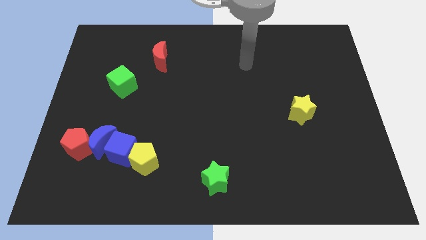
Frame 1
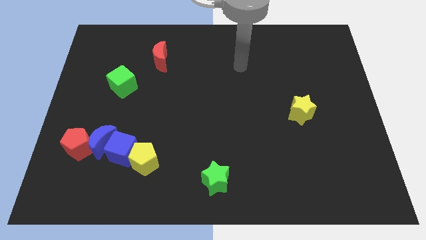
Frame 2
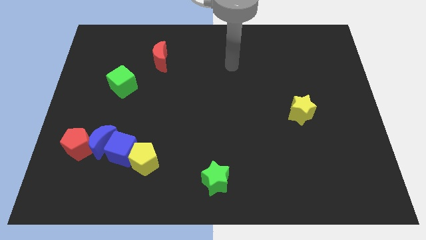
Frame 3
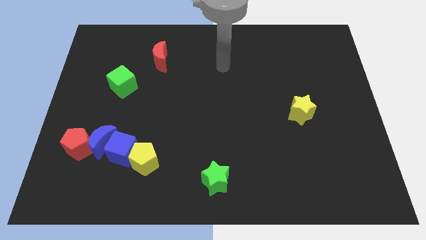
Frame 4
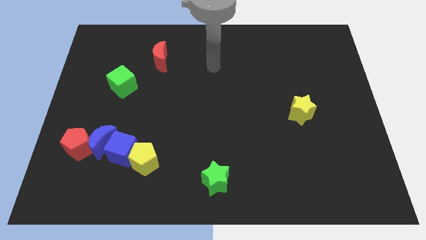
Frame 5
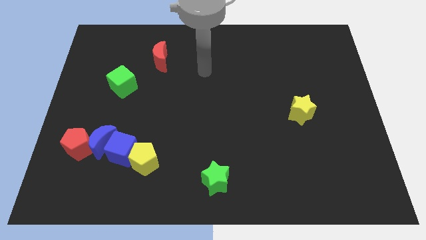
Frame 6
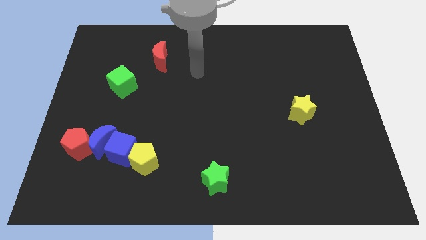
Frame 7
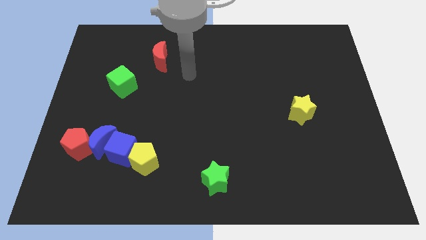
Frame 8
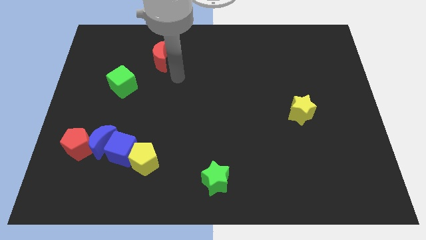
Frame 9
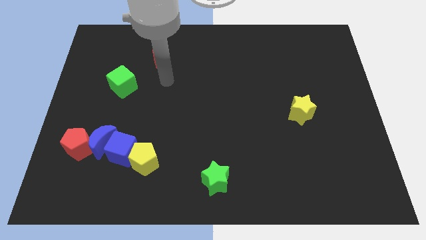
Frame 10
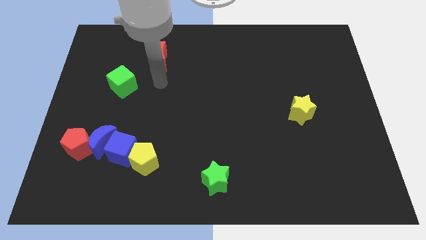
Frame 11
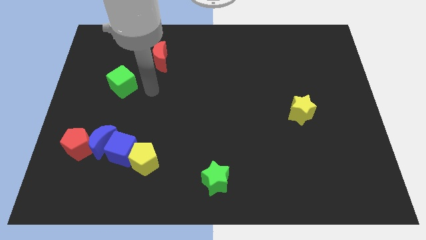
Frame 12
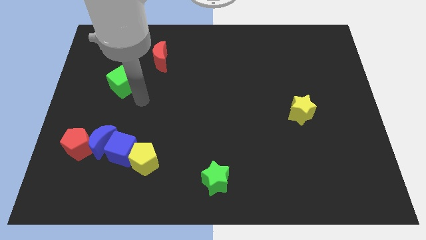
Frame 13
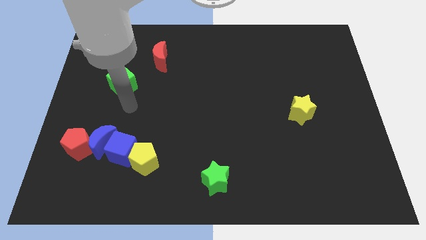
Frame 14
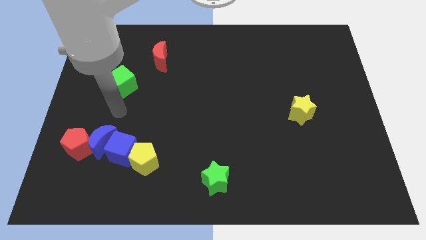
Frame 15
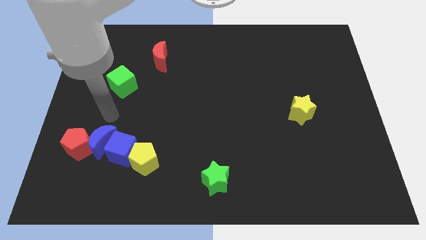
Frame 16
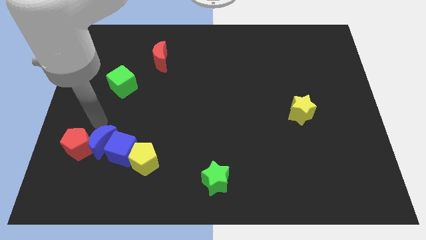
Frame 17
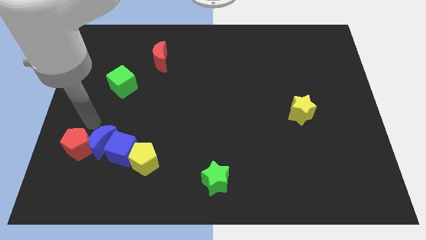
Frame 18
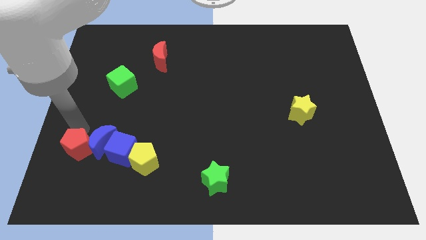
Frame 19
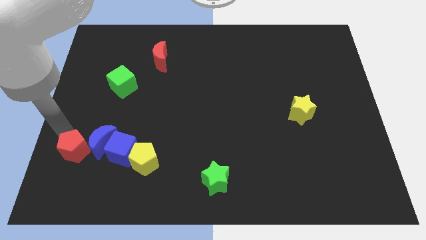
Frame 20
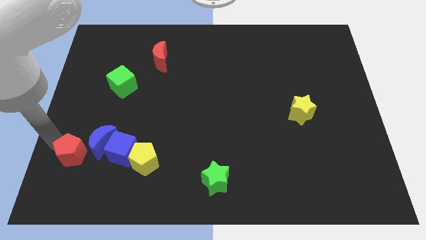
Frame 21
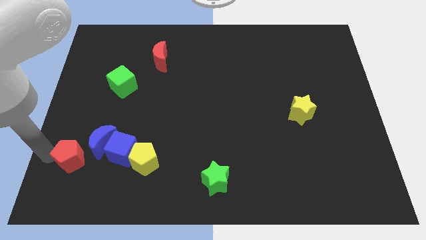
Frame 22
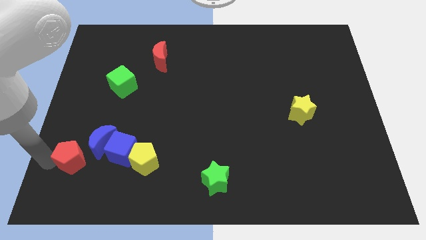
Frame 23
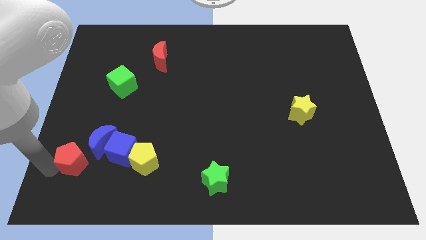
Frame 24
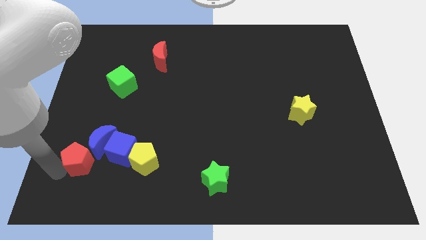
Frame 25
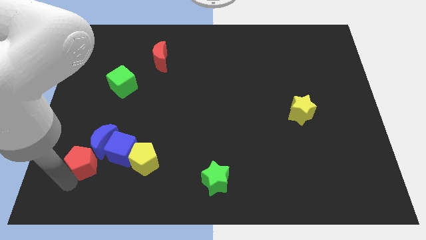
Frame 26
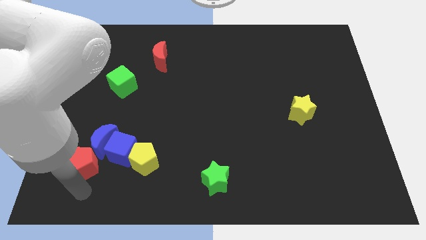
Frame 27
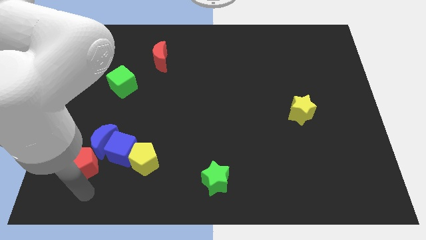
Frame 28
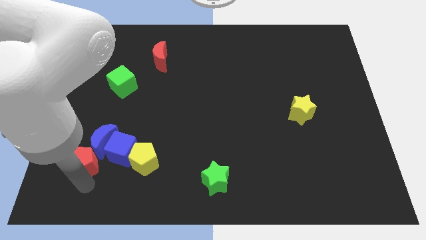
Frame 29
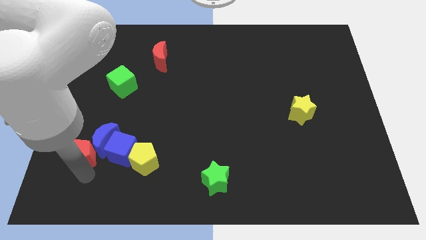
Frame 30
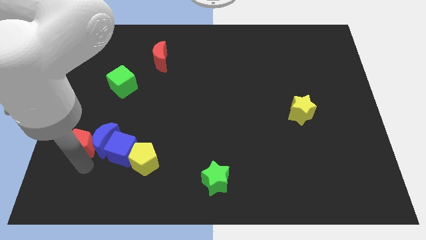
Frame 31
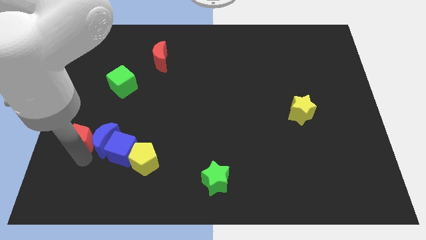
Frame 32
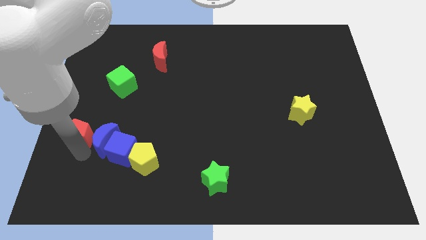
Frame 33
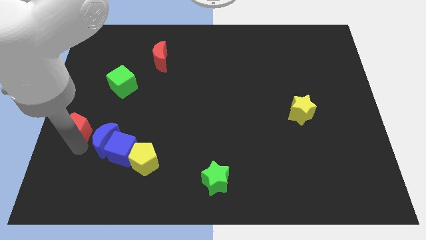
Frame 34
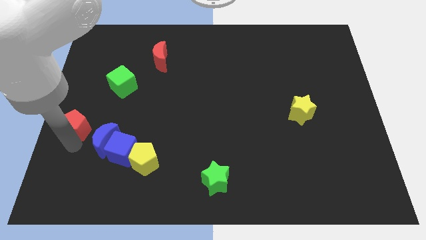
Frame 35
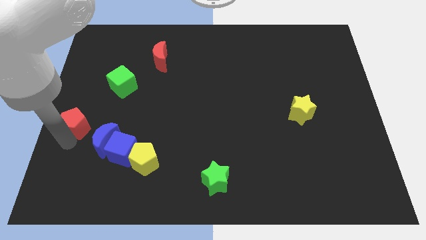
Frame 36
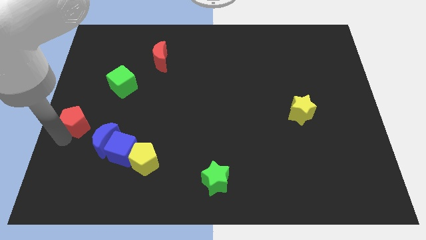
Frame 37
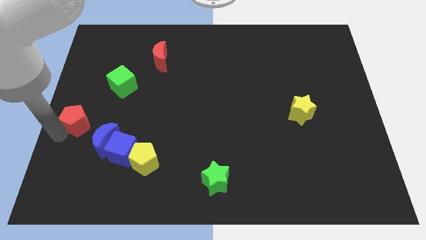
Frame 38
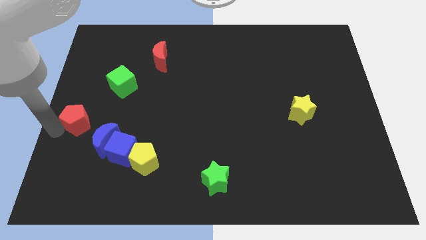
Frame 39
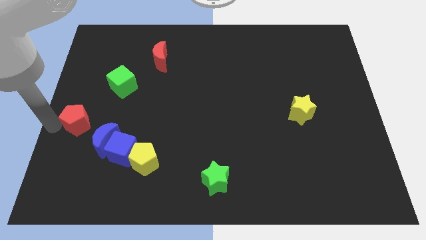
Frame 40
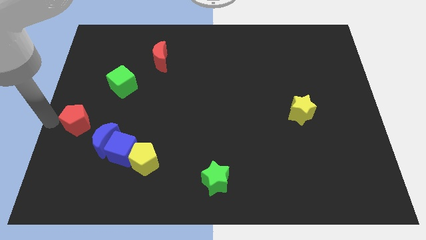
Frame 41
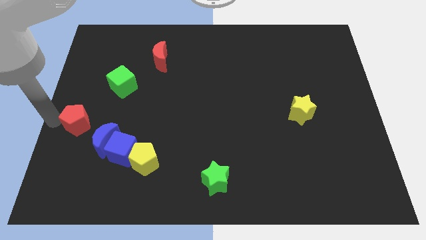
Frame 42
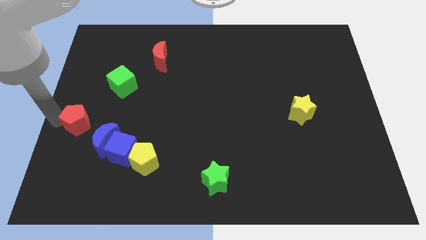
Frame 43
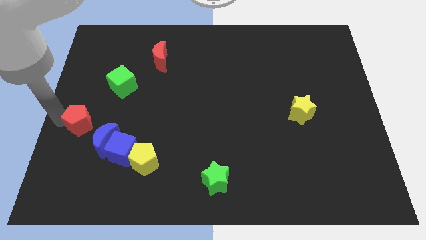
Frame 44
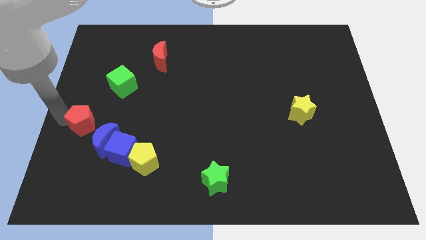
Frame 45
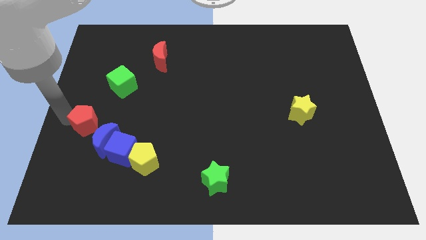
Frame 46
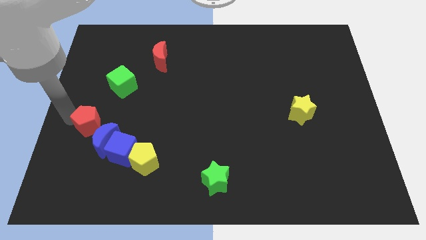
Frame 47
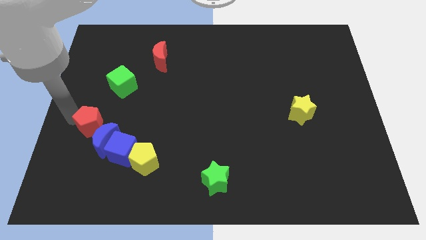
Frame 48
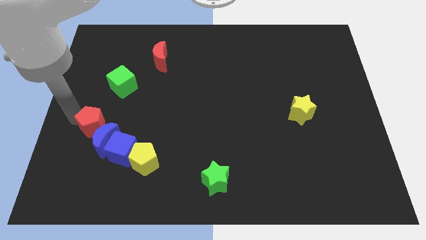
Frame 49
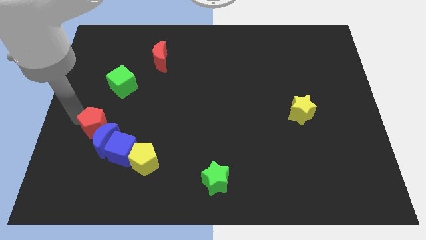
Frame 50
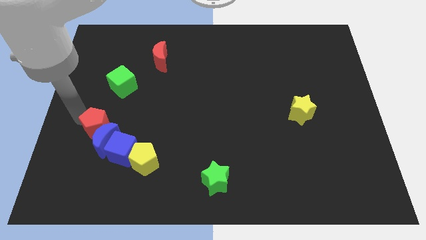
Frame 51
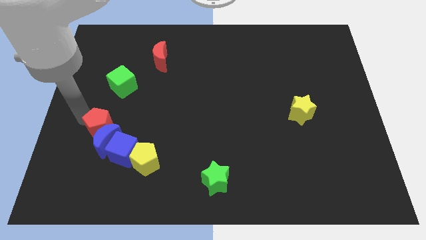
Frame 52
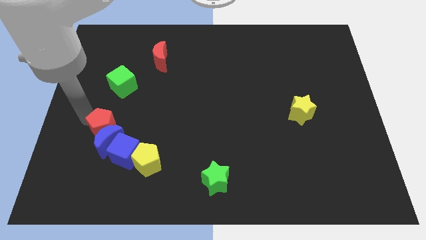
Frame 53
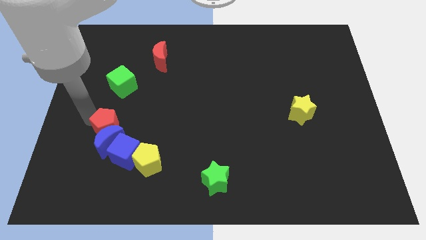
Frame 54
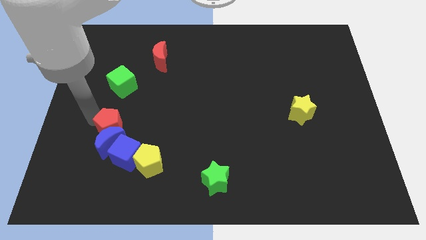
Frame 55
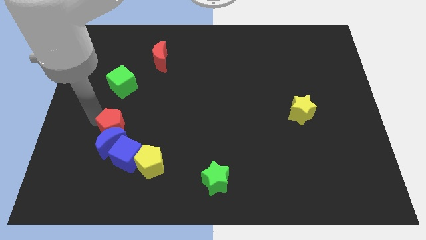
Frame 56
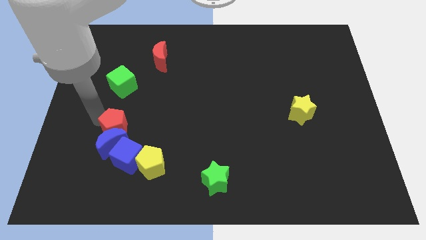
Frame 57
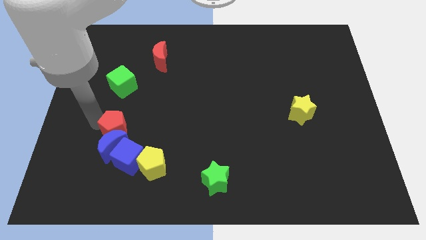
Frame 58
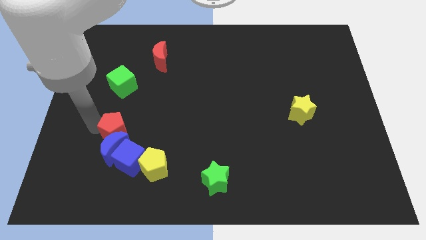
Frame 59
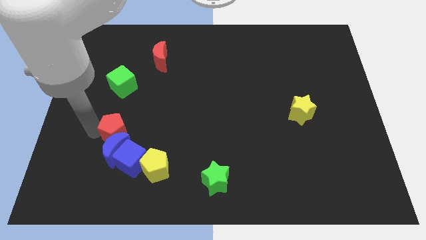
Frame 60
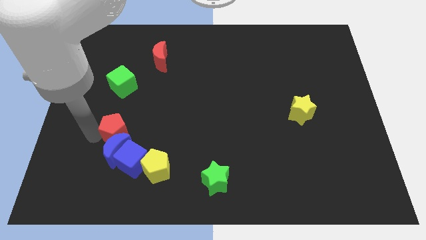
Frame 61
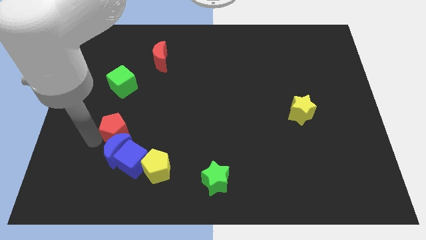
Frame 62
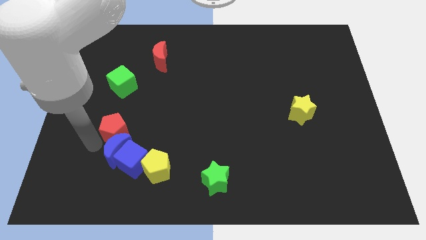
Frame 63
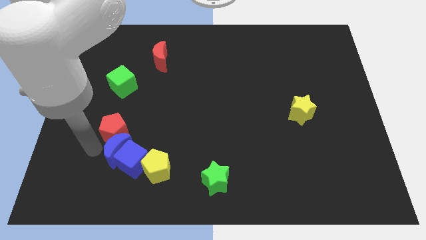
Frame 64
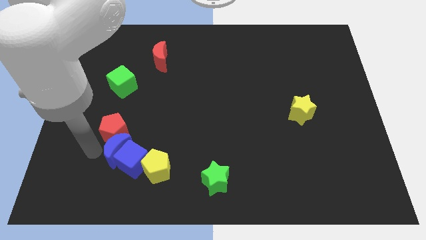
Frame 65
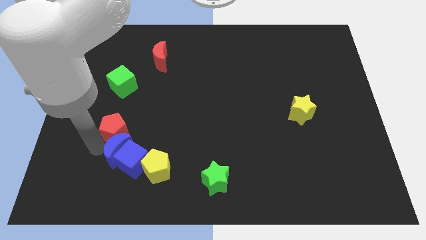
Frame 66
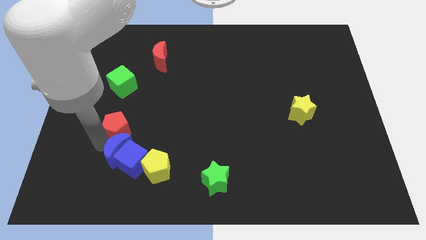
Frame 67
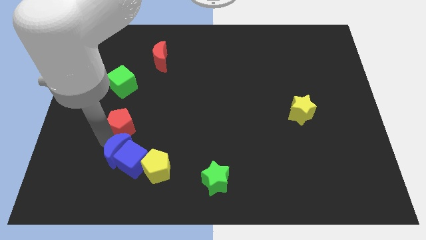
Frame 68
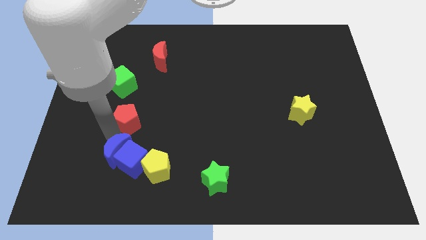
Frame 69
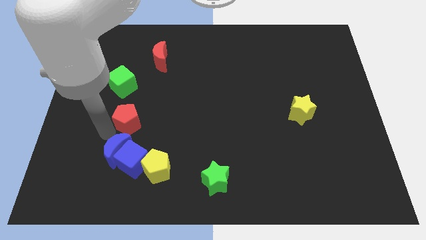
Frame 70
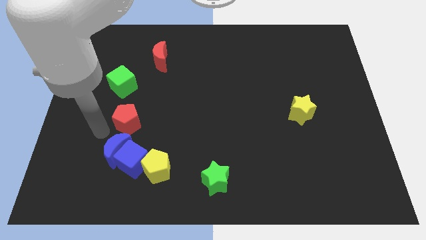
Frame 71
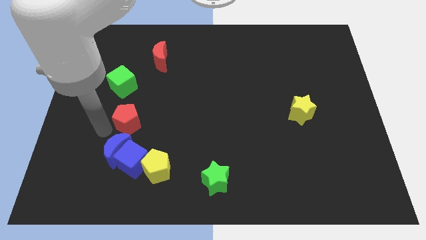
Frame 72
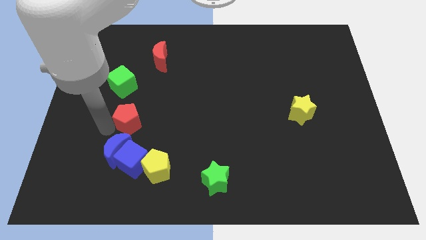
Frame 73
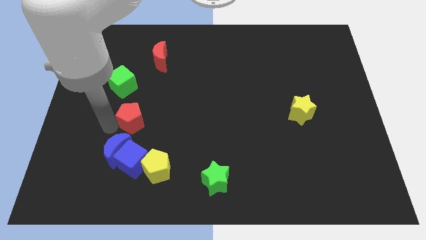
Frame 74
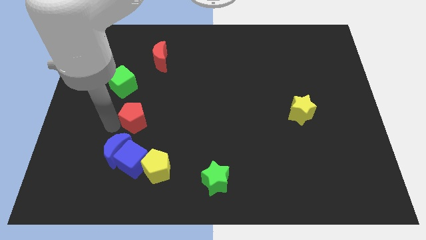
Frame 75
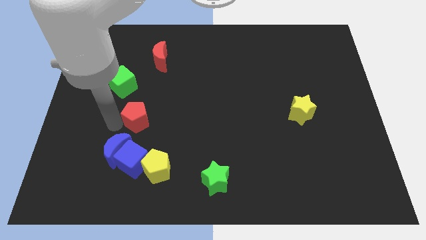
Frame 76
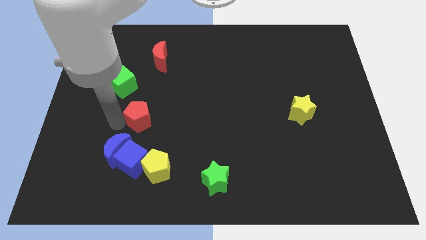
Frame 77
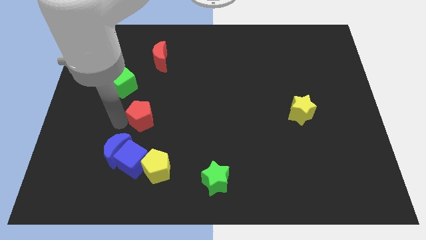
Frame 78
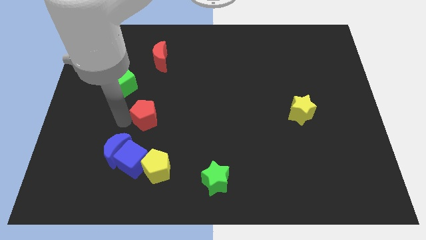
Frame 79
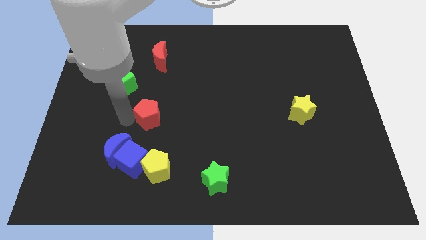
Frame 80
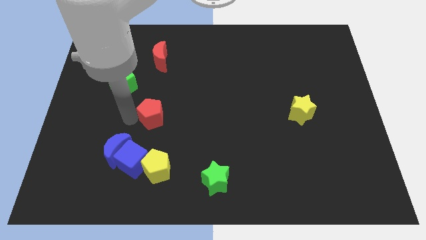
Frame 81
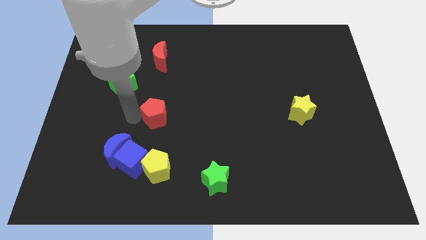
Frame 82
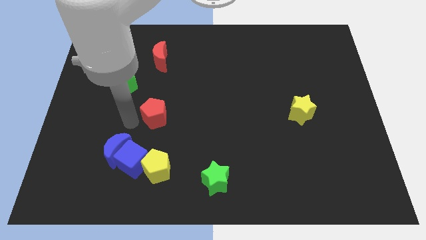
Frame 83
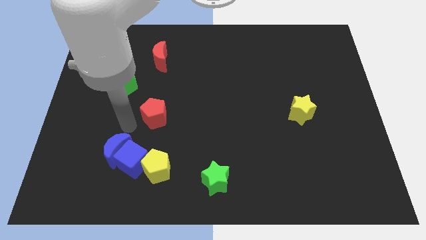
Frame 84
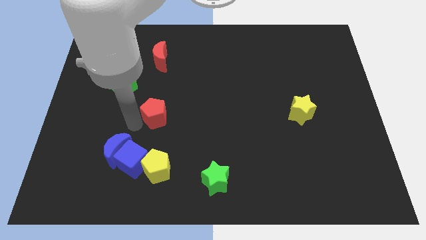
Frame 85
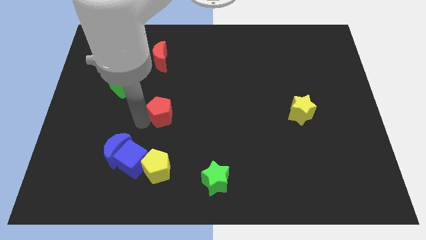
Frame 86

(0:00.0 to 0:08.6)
slide the red pentagon to the middle of the board
